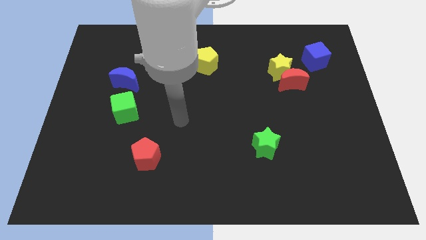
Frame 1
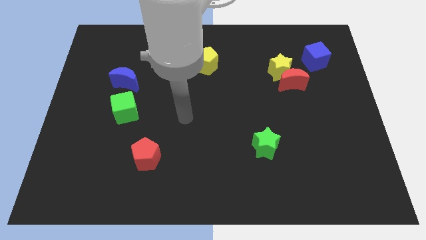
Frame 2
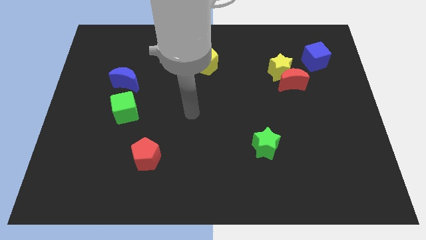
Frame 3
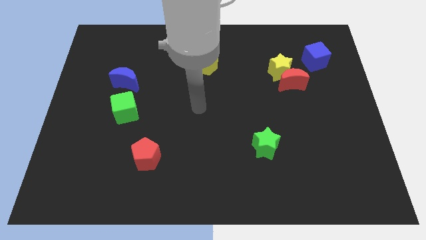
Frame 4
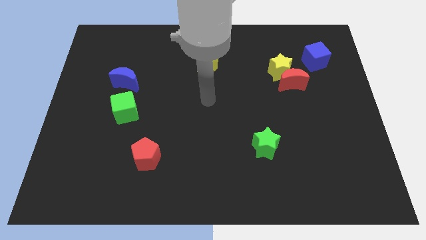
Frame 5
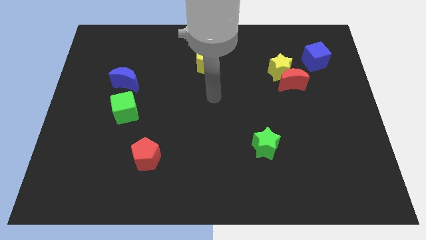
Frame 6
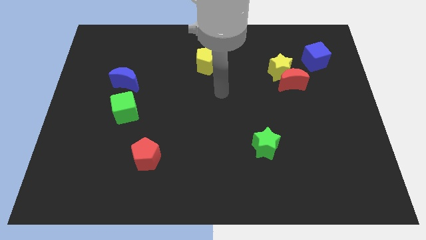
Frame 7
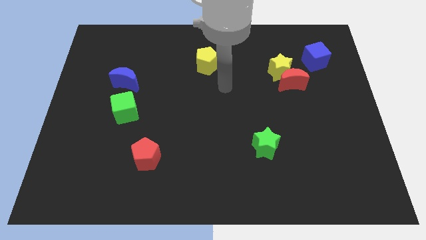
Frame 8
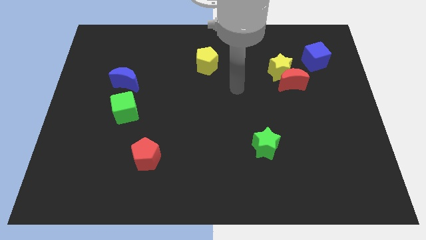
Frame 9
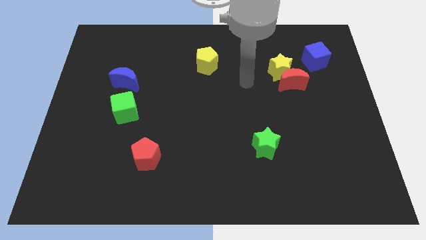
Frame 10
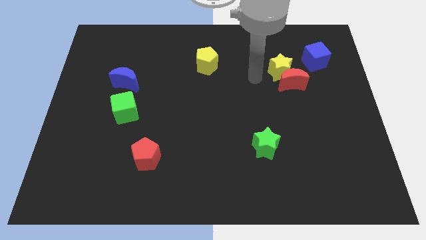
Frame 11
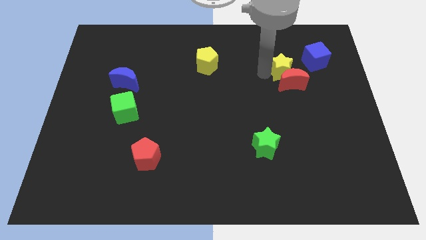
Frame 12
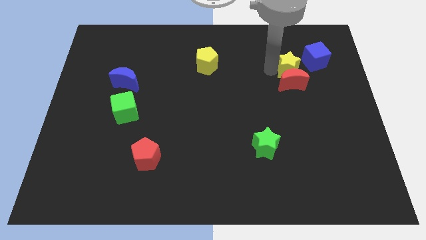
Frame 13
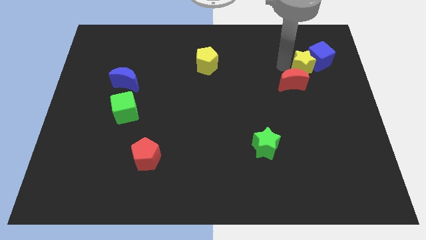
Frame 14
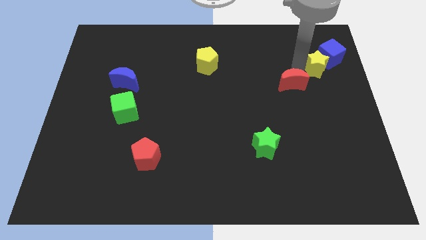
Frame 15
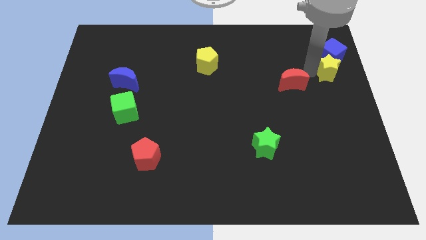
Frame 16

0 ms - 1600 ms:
pull the red moon apart from the yellow star

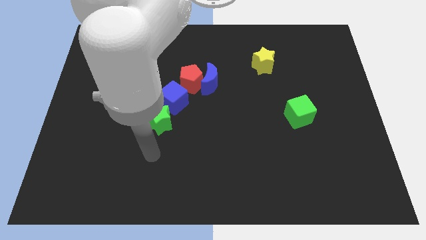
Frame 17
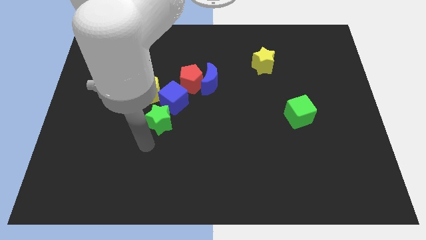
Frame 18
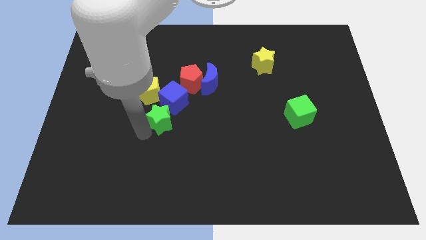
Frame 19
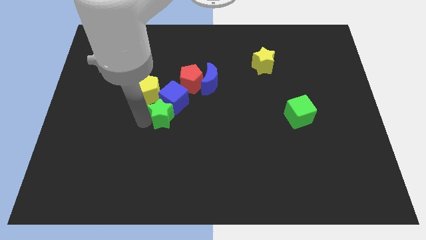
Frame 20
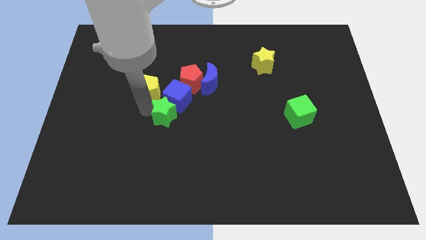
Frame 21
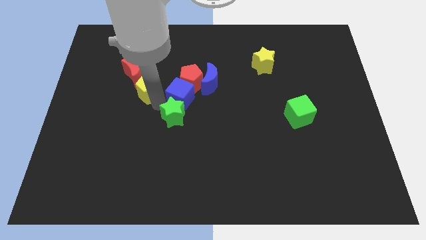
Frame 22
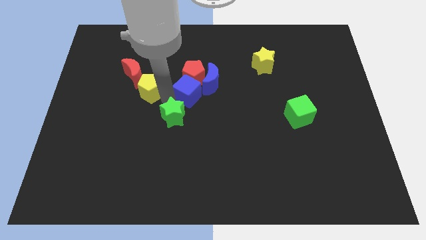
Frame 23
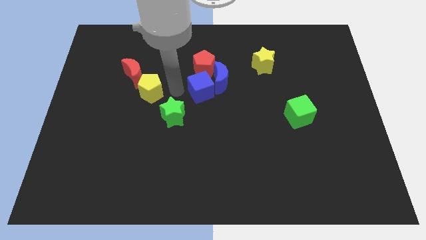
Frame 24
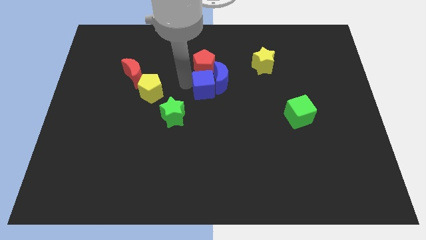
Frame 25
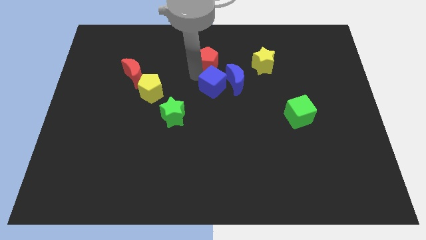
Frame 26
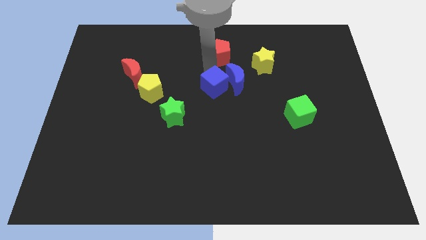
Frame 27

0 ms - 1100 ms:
pull the blue moon apart from the red pentagon

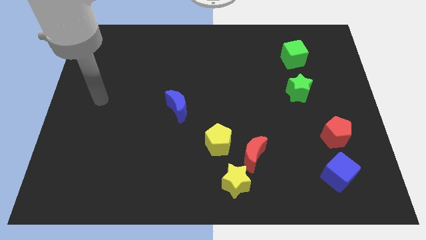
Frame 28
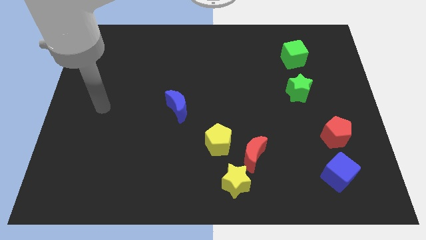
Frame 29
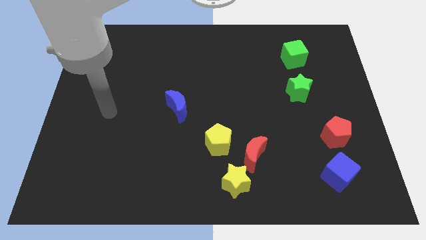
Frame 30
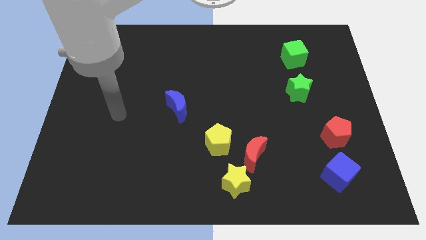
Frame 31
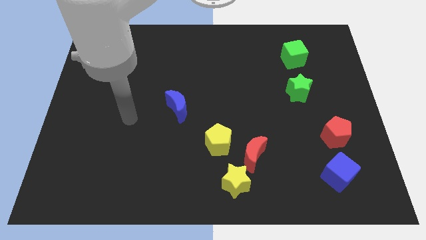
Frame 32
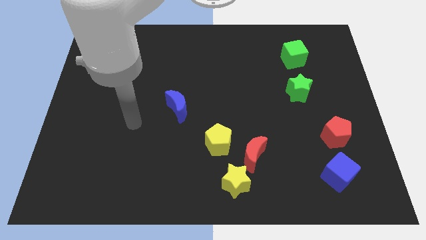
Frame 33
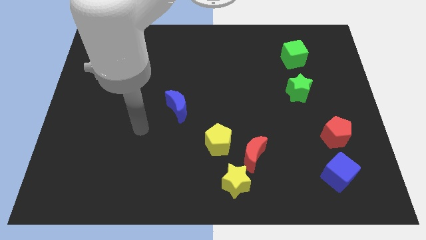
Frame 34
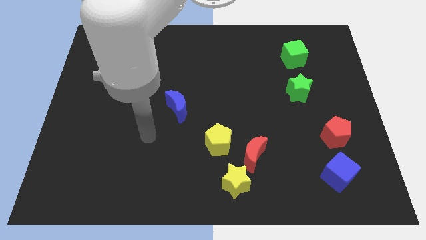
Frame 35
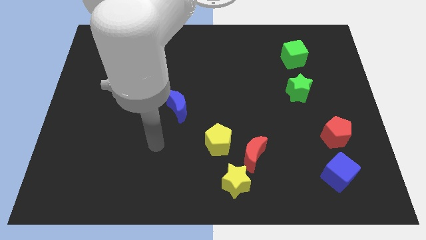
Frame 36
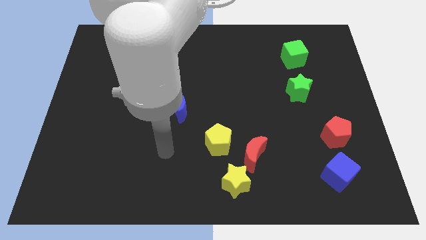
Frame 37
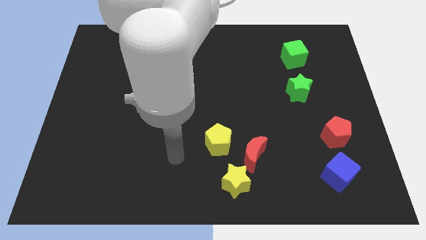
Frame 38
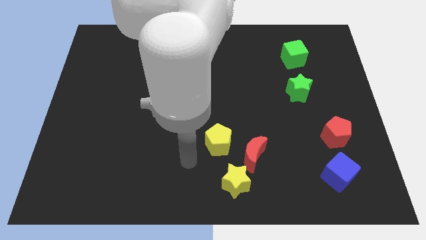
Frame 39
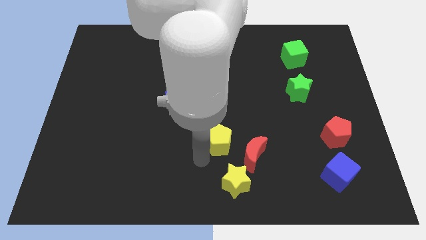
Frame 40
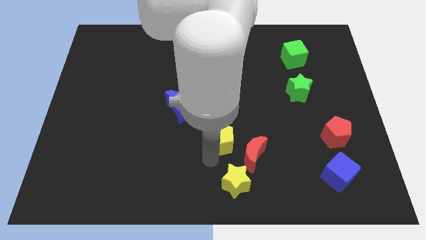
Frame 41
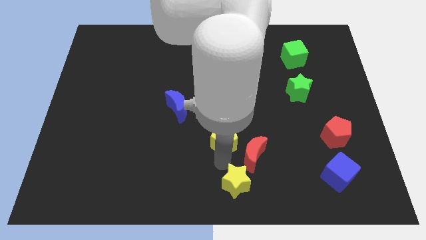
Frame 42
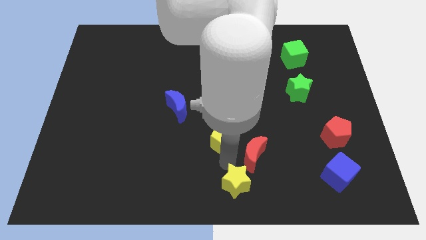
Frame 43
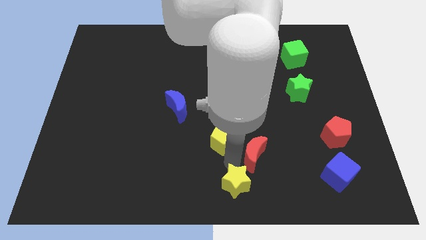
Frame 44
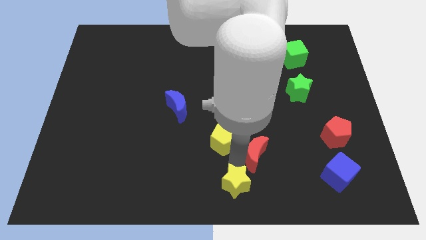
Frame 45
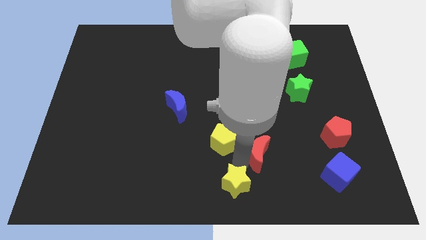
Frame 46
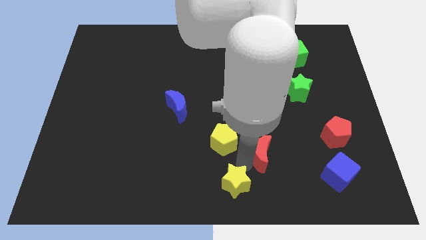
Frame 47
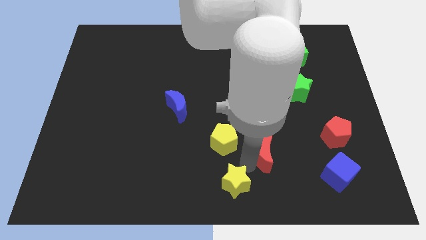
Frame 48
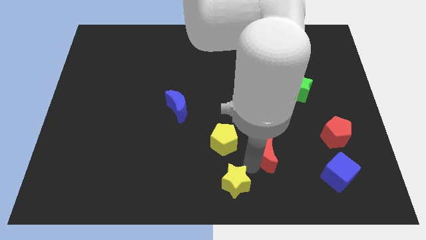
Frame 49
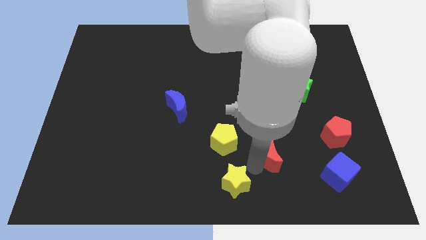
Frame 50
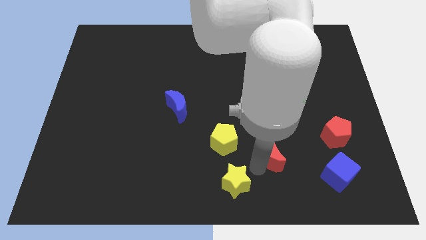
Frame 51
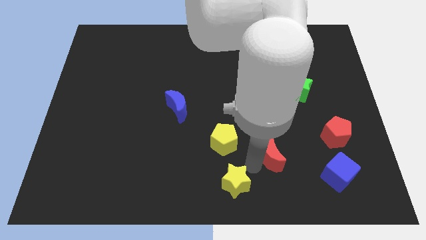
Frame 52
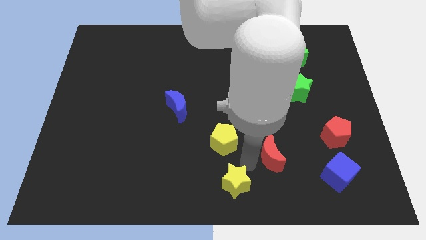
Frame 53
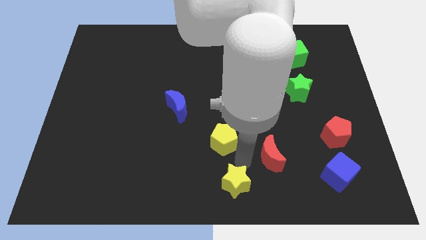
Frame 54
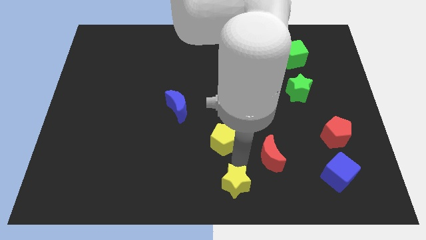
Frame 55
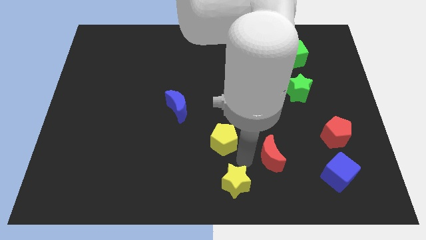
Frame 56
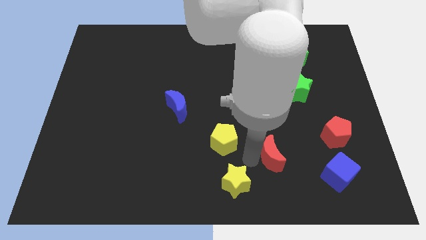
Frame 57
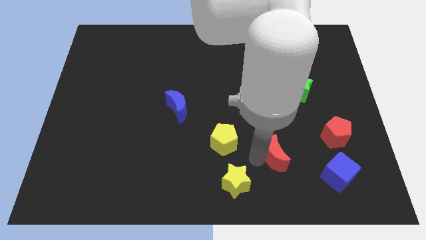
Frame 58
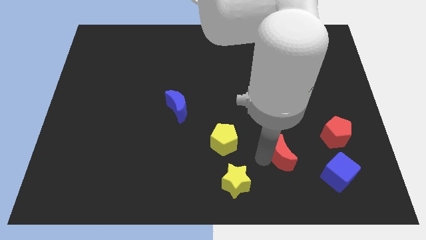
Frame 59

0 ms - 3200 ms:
pull the red moon apart from the yellow star and yellow pentagon

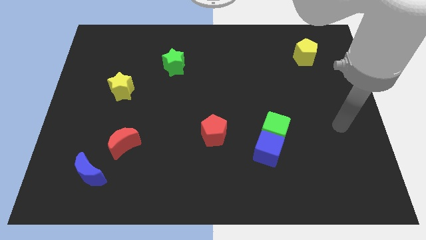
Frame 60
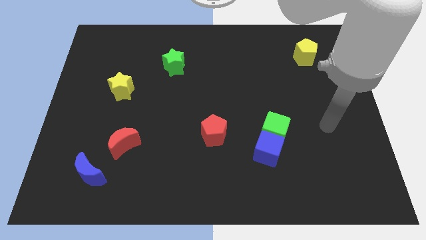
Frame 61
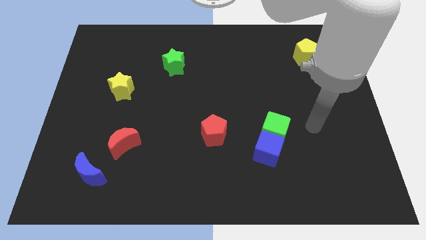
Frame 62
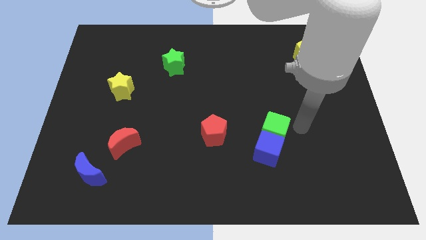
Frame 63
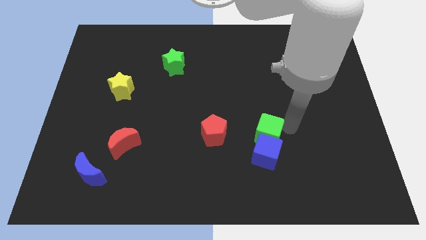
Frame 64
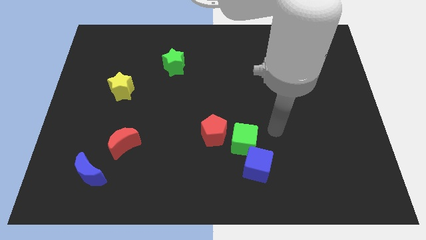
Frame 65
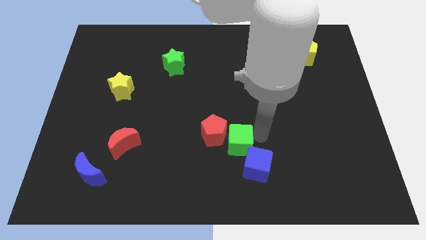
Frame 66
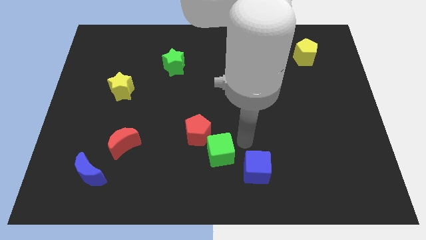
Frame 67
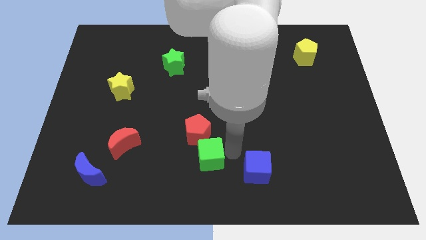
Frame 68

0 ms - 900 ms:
move the blue cube away from the green cube

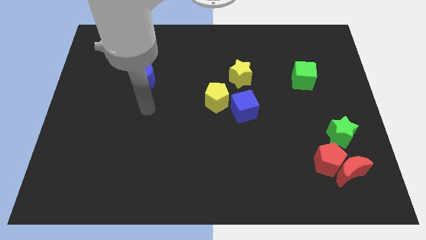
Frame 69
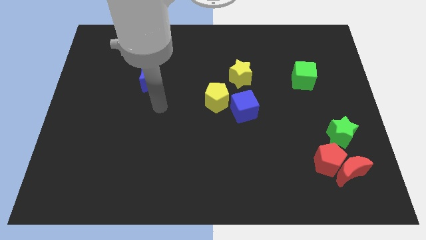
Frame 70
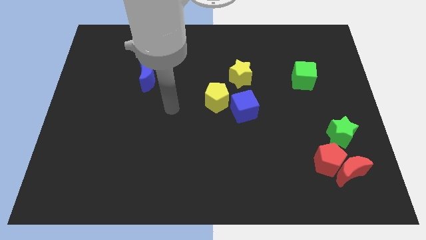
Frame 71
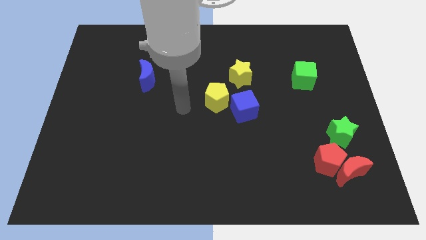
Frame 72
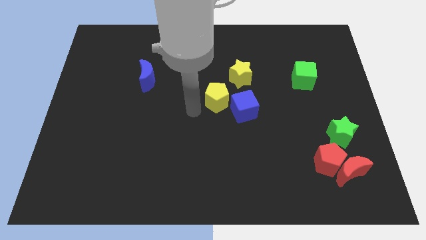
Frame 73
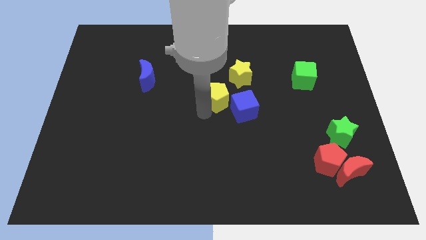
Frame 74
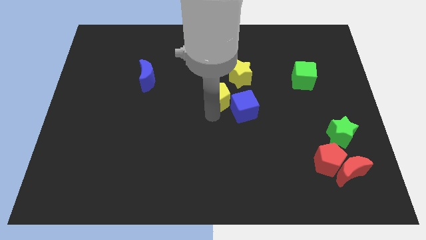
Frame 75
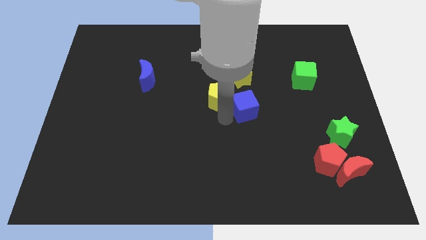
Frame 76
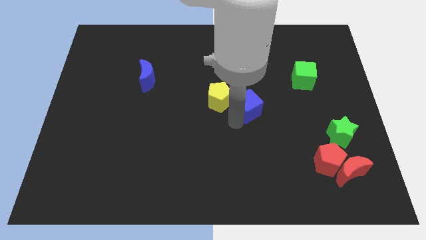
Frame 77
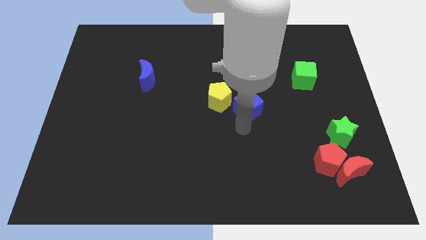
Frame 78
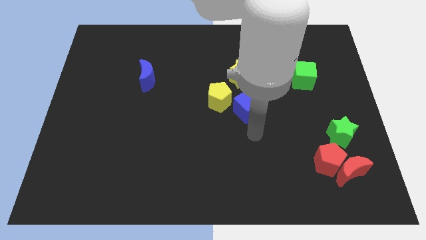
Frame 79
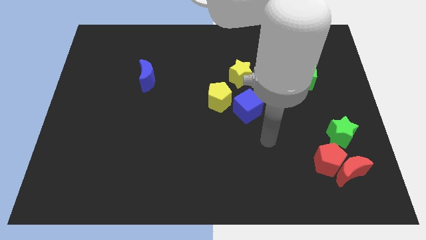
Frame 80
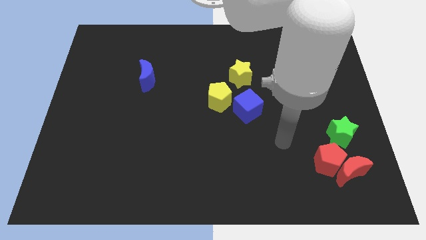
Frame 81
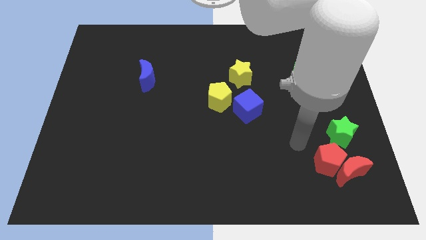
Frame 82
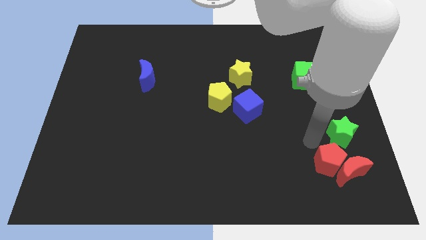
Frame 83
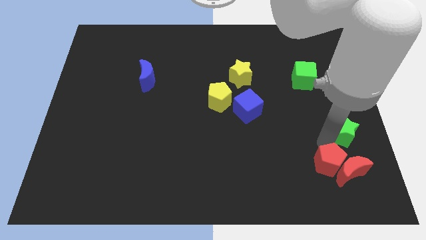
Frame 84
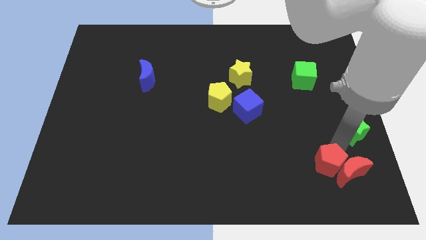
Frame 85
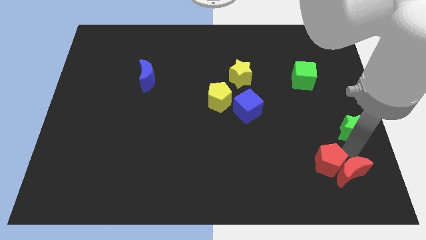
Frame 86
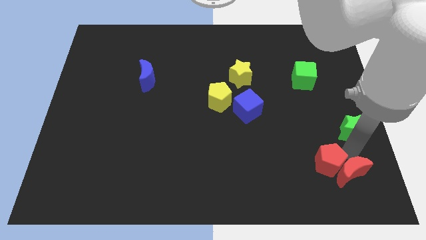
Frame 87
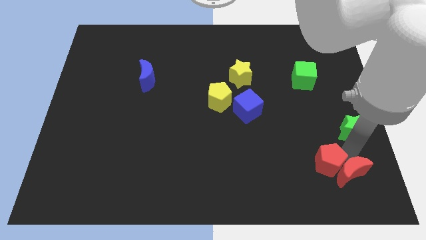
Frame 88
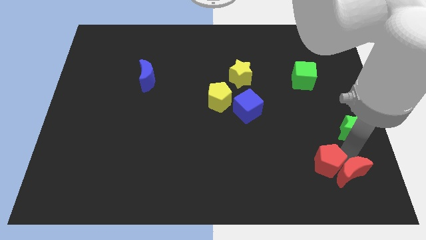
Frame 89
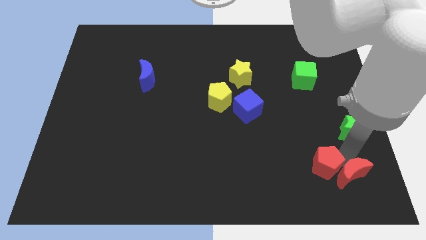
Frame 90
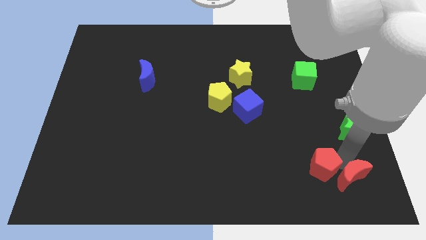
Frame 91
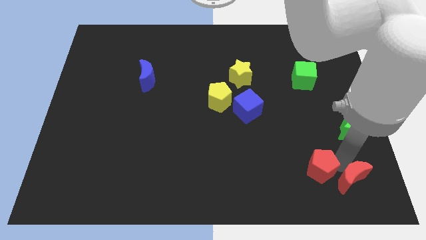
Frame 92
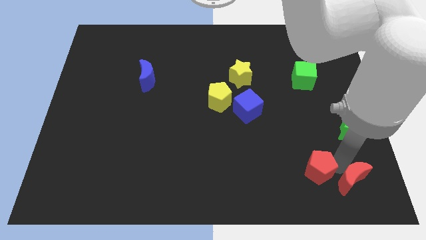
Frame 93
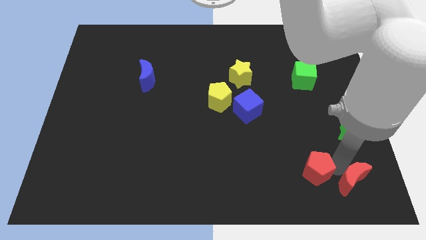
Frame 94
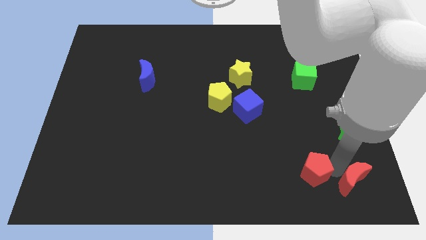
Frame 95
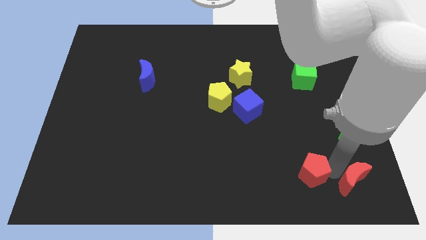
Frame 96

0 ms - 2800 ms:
separate the red pentagon from the red moon and green star
